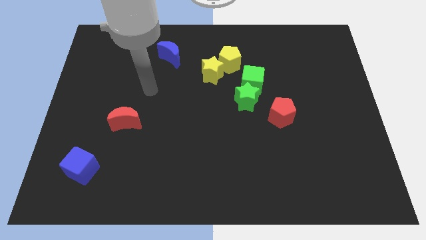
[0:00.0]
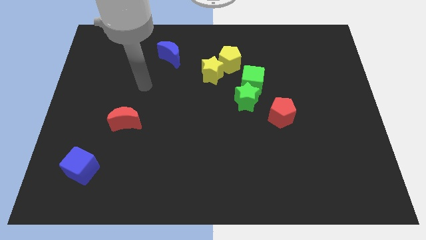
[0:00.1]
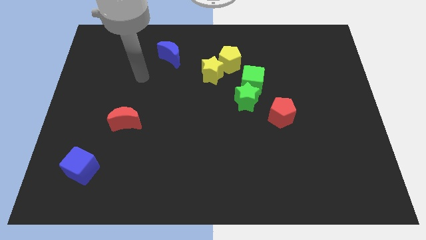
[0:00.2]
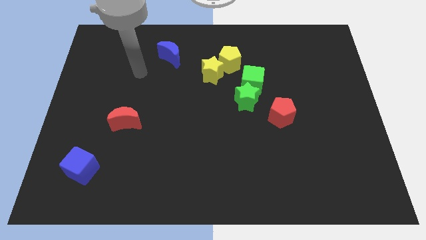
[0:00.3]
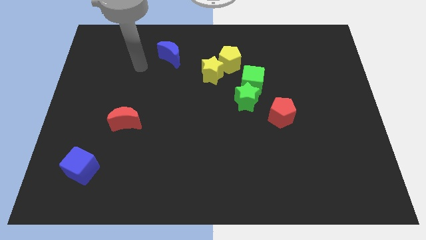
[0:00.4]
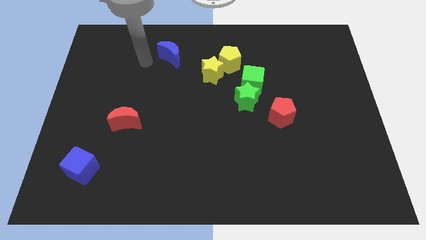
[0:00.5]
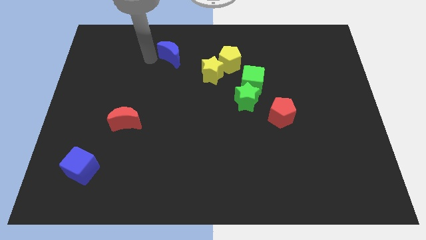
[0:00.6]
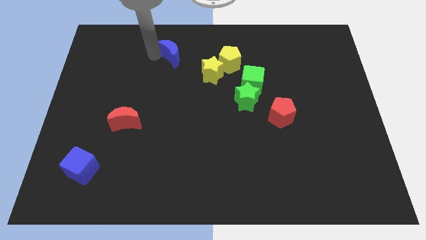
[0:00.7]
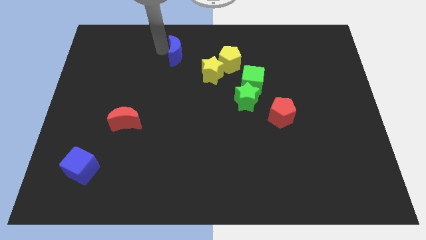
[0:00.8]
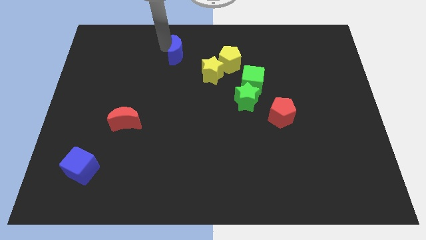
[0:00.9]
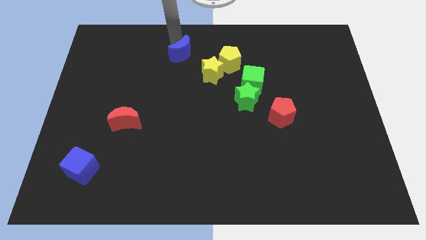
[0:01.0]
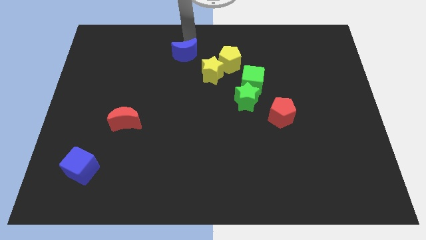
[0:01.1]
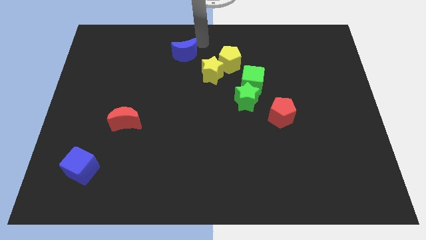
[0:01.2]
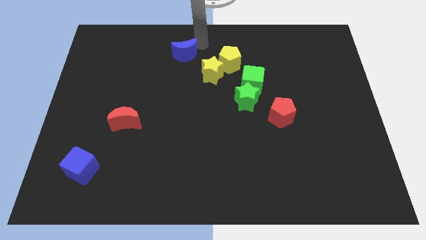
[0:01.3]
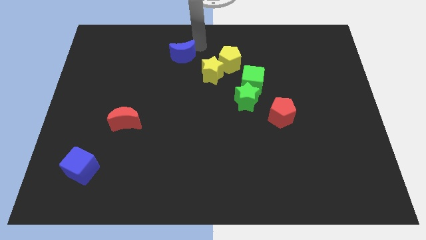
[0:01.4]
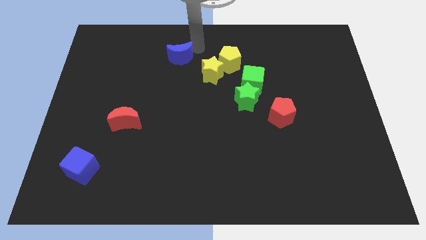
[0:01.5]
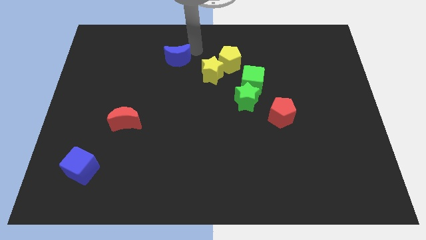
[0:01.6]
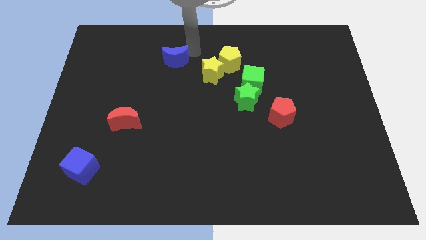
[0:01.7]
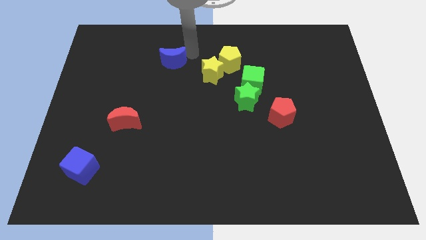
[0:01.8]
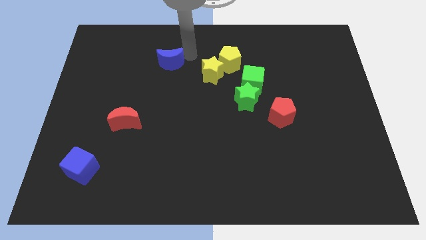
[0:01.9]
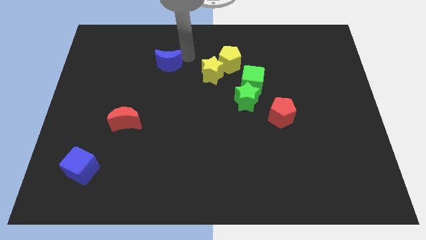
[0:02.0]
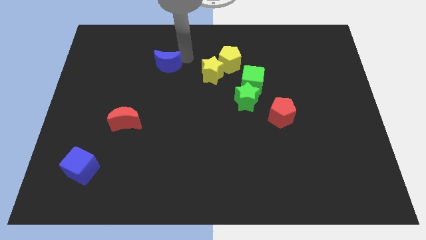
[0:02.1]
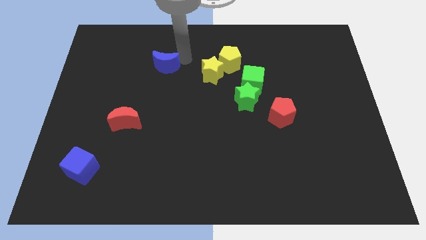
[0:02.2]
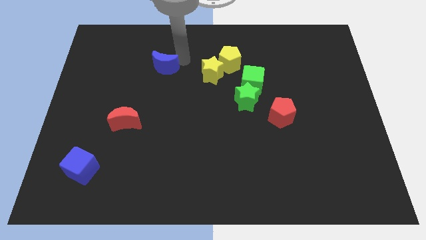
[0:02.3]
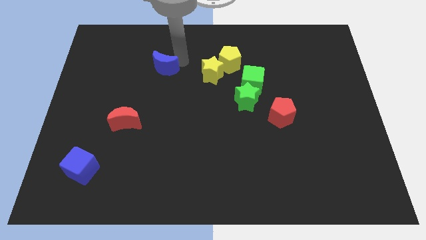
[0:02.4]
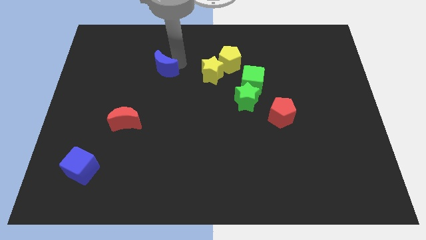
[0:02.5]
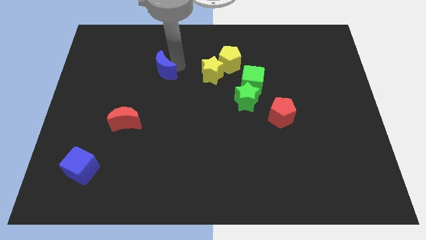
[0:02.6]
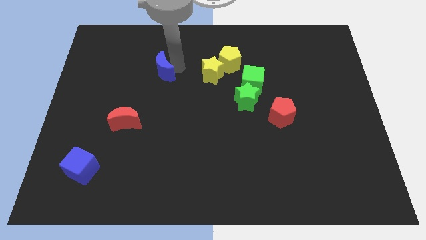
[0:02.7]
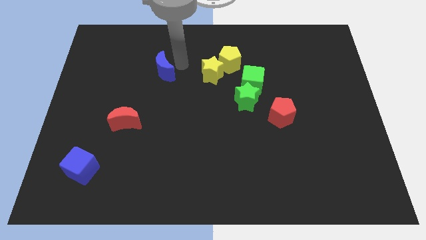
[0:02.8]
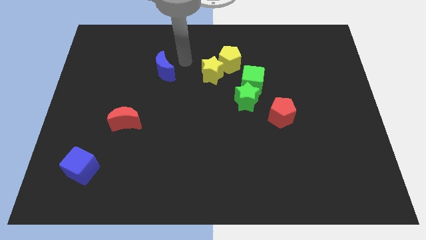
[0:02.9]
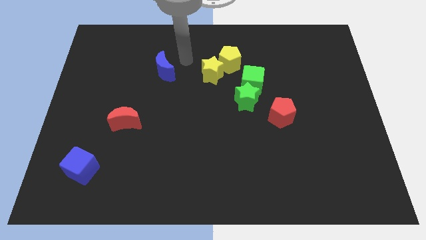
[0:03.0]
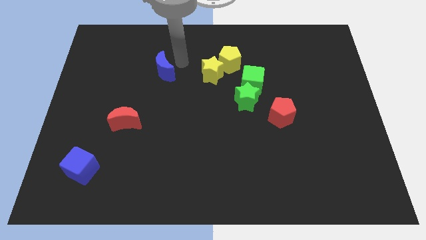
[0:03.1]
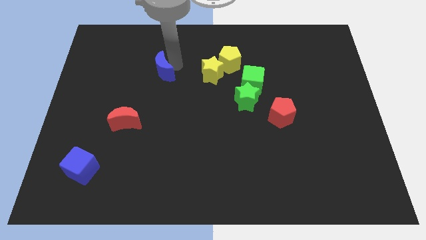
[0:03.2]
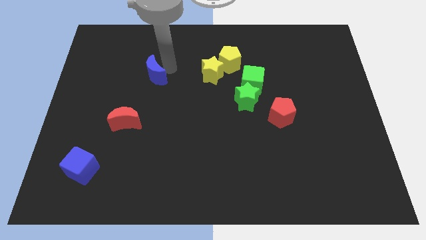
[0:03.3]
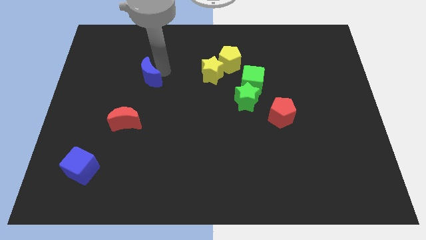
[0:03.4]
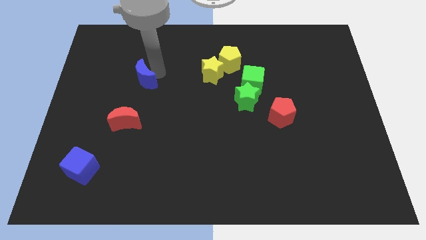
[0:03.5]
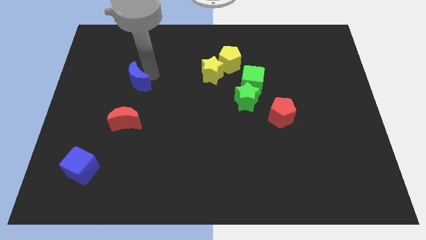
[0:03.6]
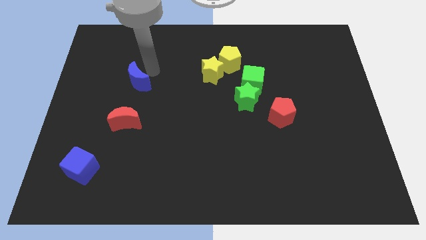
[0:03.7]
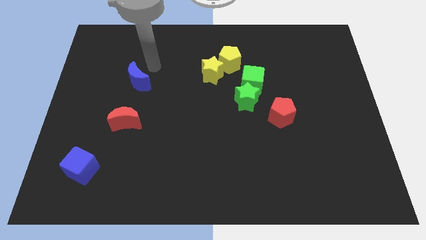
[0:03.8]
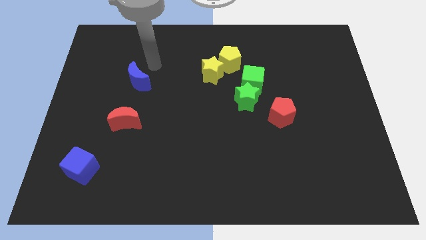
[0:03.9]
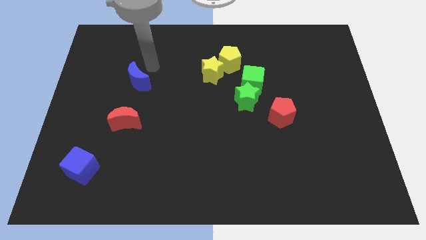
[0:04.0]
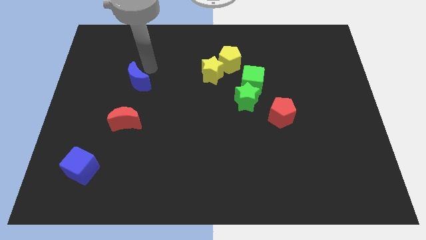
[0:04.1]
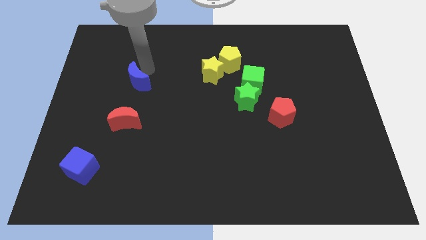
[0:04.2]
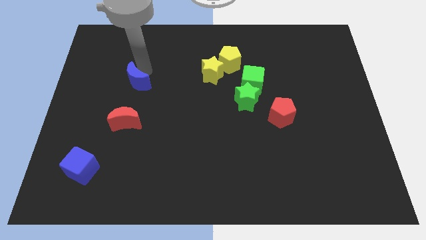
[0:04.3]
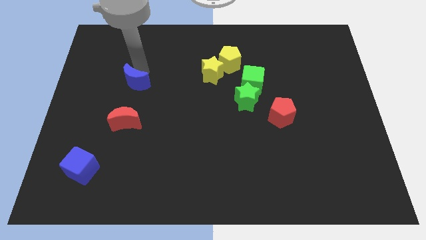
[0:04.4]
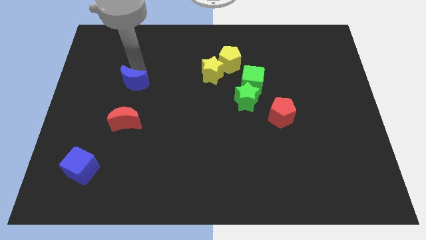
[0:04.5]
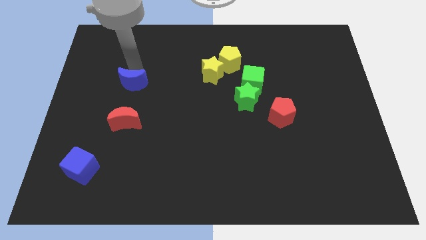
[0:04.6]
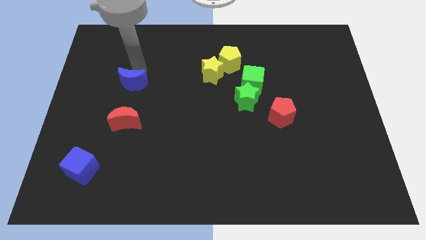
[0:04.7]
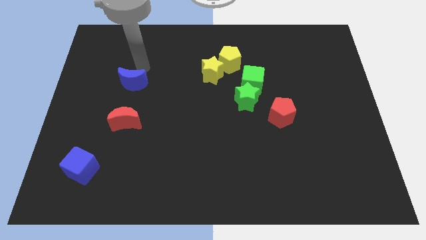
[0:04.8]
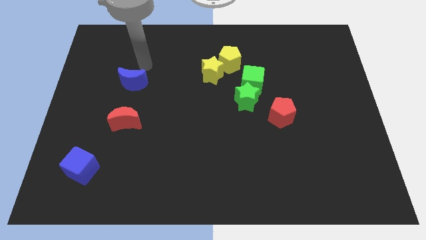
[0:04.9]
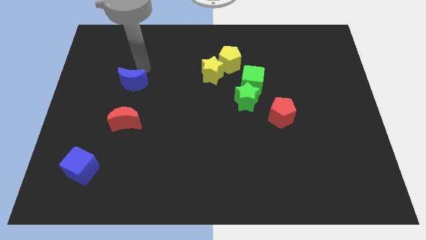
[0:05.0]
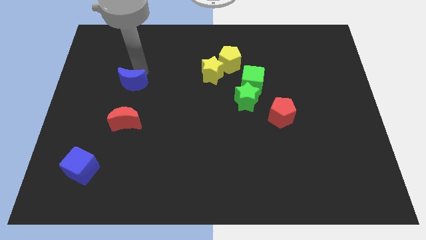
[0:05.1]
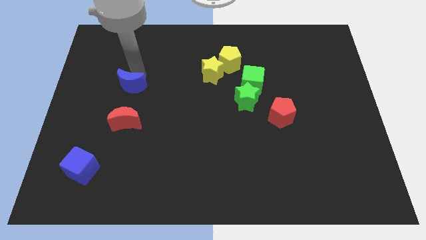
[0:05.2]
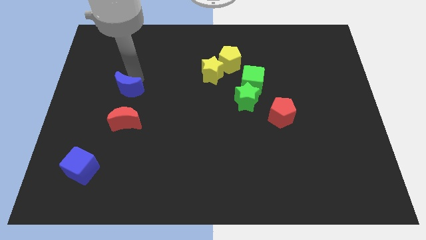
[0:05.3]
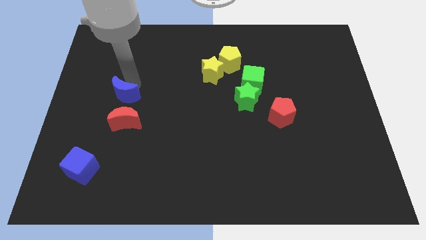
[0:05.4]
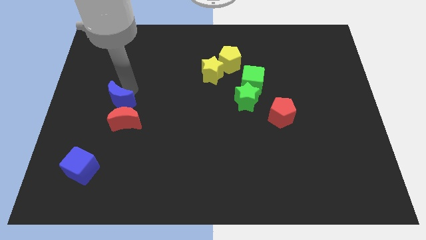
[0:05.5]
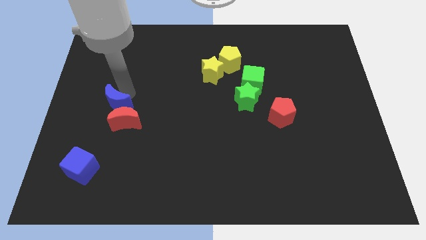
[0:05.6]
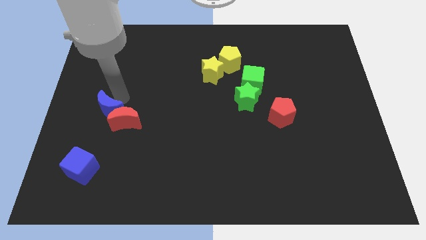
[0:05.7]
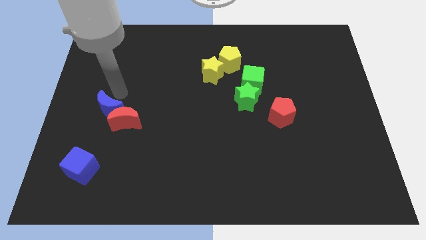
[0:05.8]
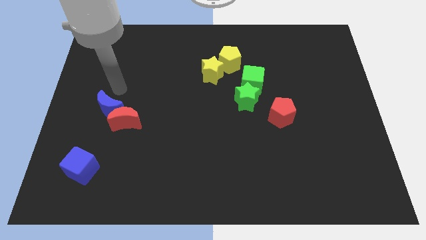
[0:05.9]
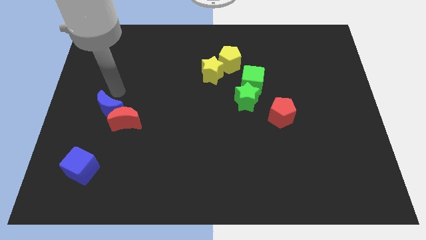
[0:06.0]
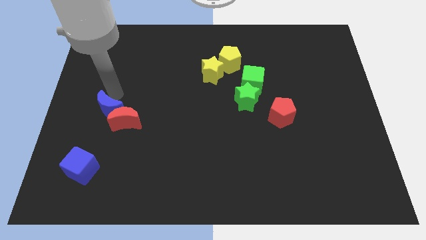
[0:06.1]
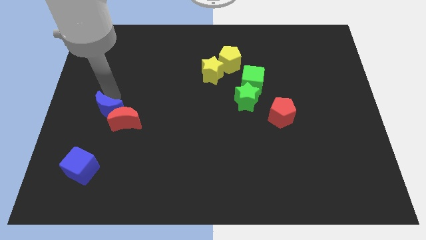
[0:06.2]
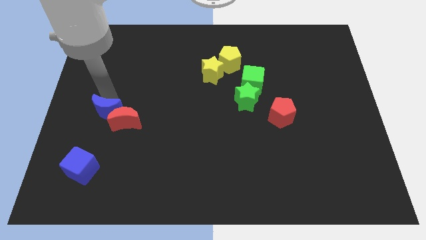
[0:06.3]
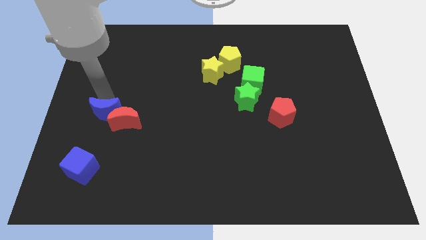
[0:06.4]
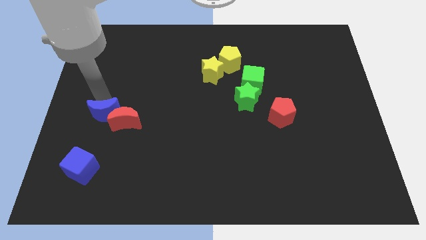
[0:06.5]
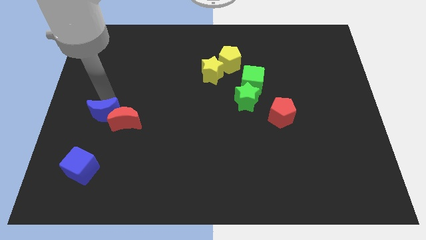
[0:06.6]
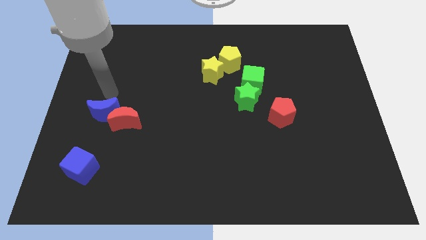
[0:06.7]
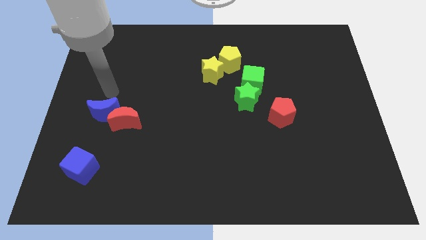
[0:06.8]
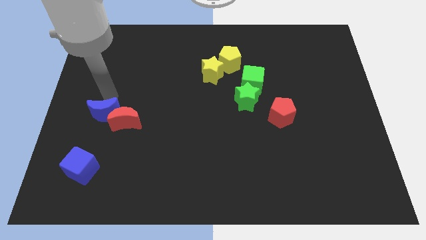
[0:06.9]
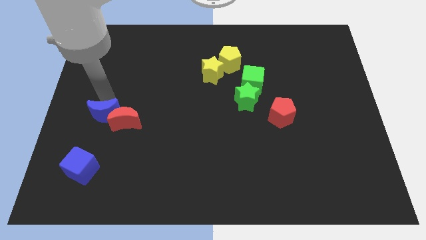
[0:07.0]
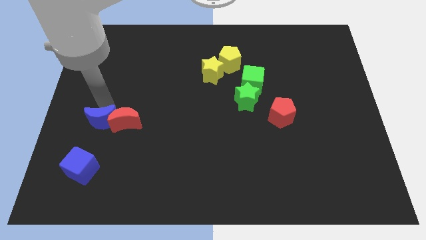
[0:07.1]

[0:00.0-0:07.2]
slide the blue moon to the bottom left of the red moon
